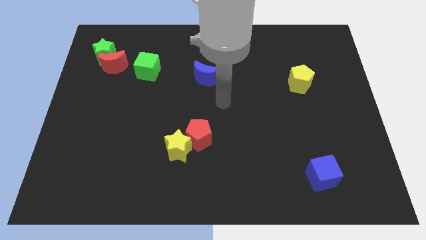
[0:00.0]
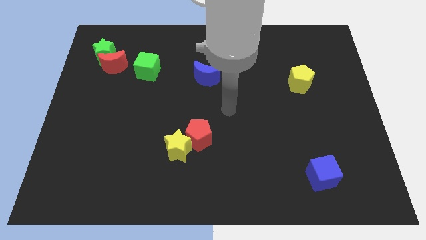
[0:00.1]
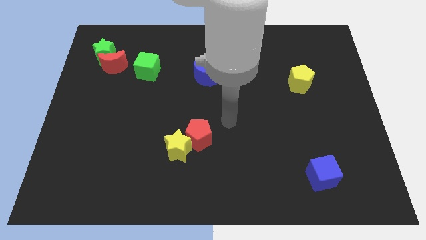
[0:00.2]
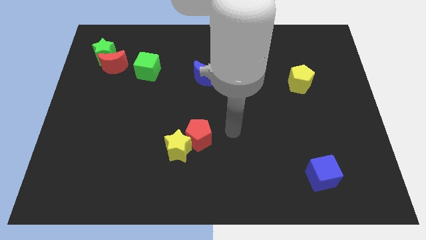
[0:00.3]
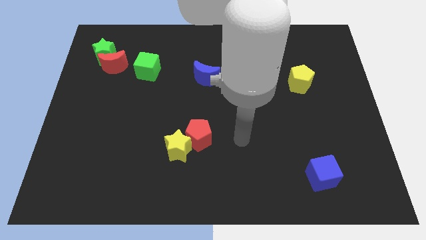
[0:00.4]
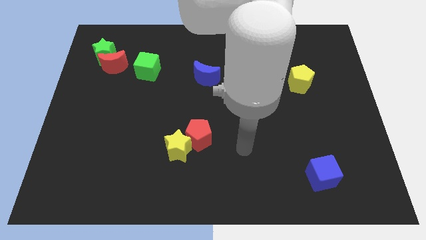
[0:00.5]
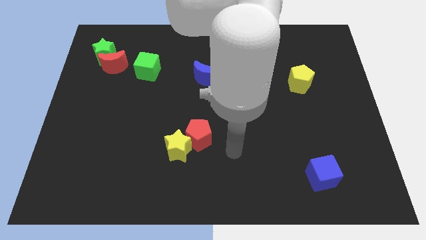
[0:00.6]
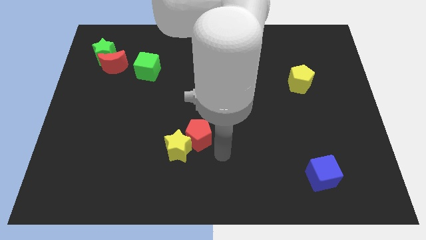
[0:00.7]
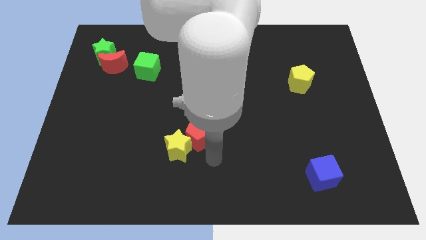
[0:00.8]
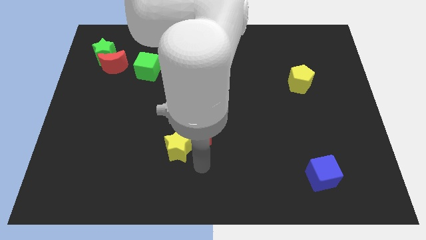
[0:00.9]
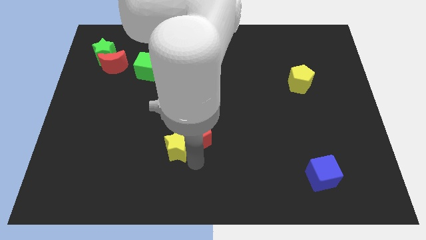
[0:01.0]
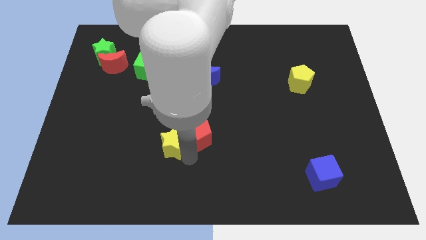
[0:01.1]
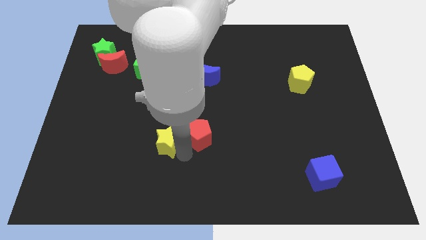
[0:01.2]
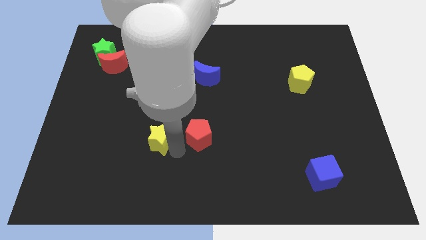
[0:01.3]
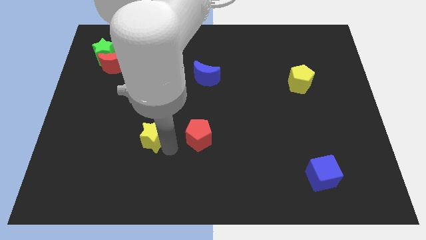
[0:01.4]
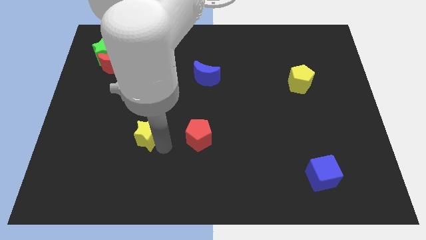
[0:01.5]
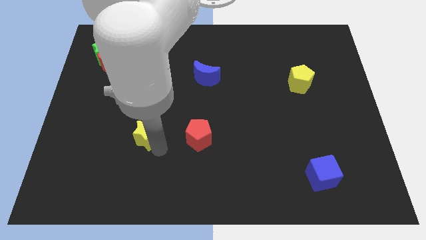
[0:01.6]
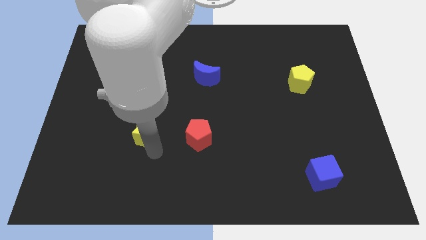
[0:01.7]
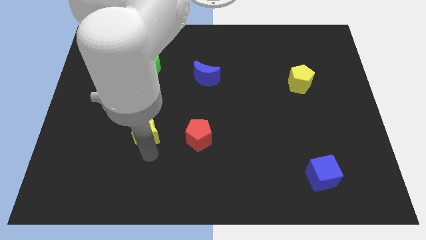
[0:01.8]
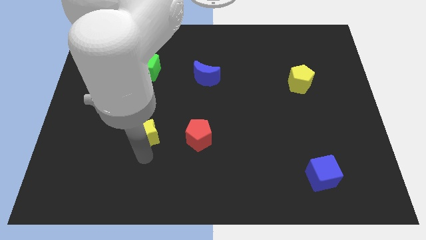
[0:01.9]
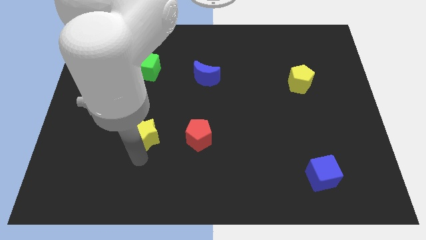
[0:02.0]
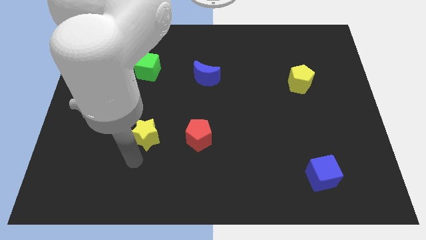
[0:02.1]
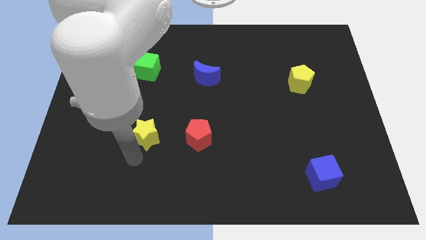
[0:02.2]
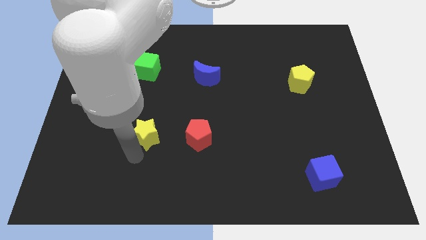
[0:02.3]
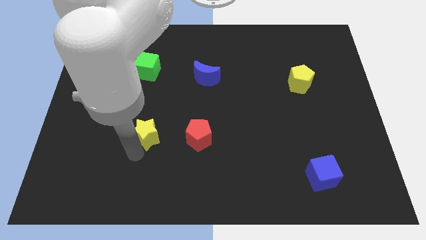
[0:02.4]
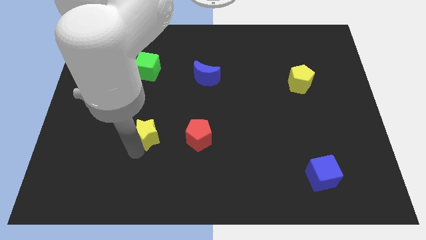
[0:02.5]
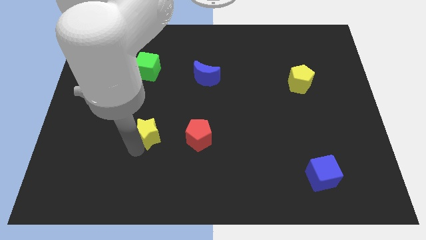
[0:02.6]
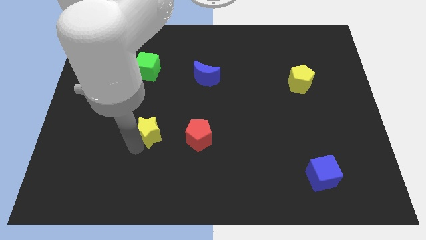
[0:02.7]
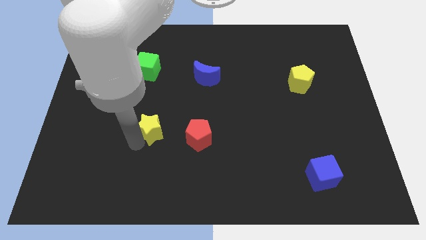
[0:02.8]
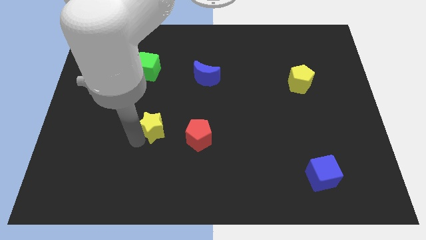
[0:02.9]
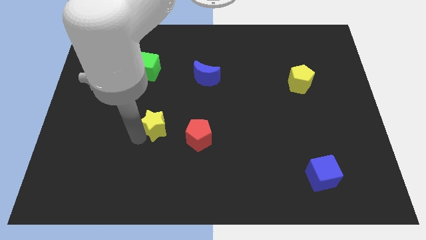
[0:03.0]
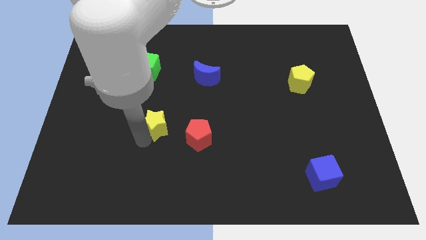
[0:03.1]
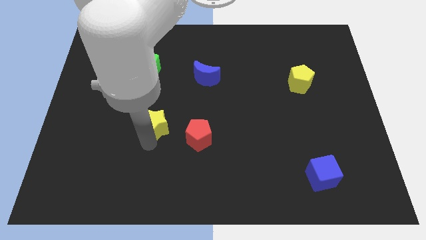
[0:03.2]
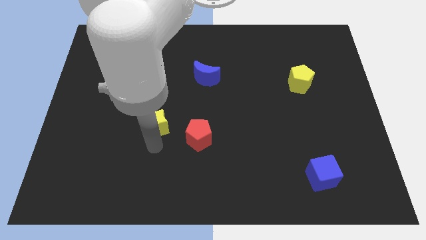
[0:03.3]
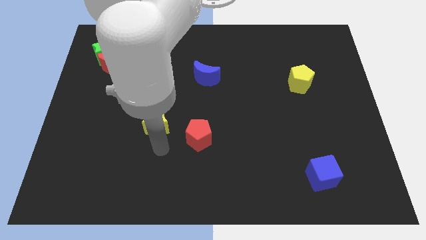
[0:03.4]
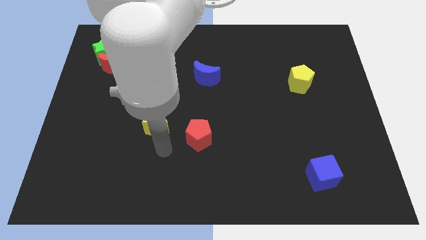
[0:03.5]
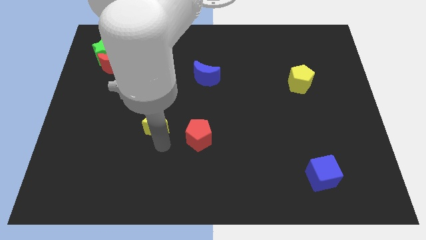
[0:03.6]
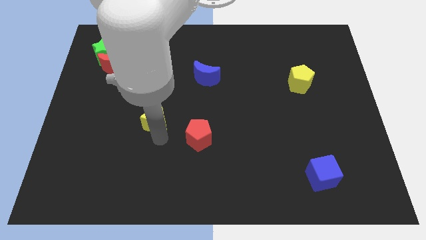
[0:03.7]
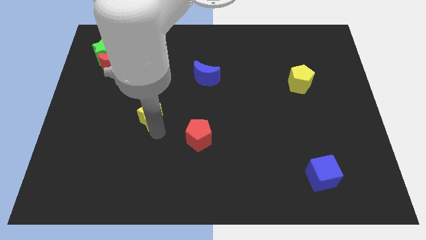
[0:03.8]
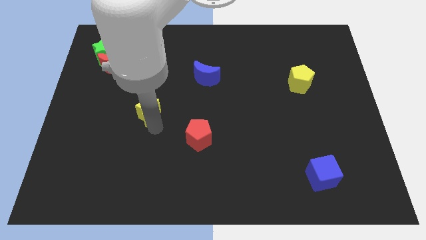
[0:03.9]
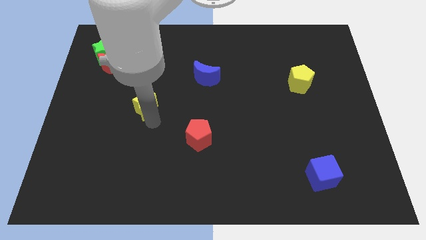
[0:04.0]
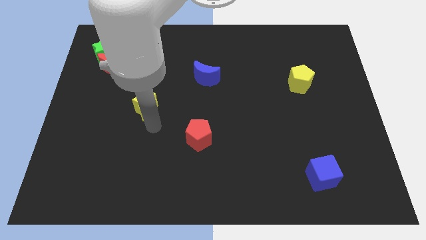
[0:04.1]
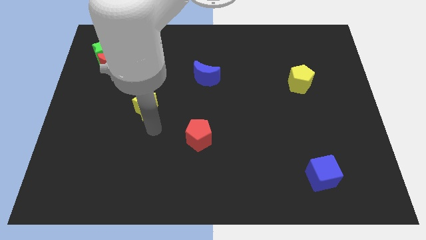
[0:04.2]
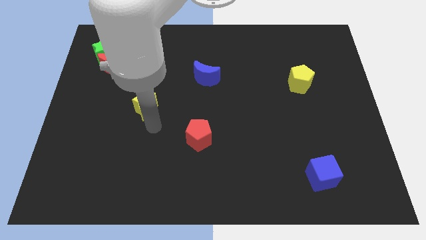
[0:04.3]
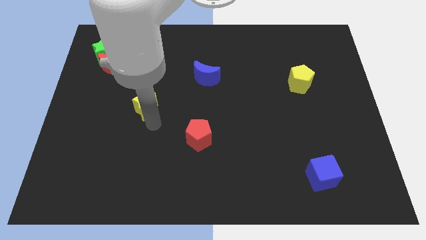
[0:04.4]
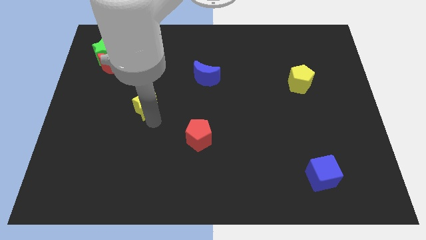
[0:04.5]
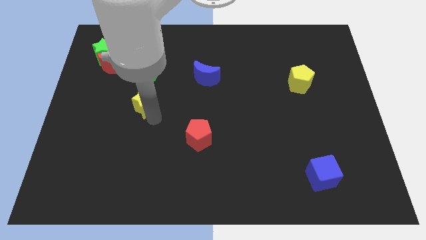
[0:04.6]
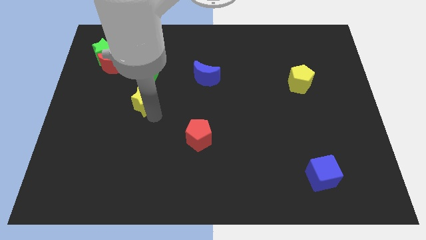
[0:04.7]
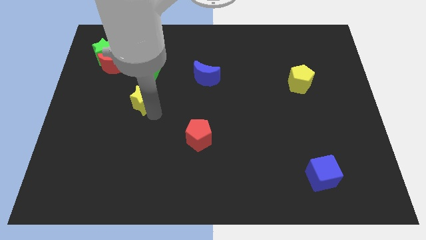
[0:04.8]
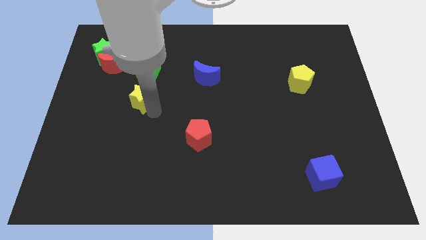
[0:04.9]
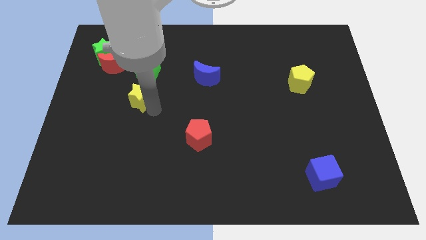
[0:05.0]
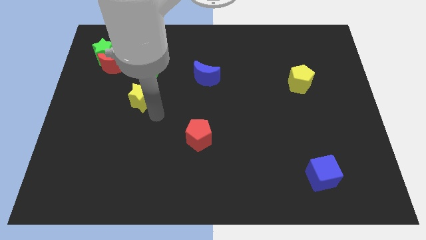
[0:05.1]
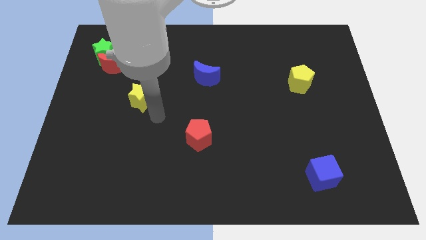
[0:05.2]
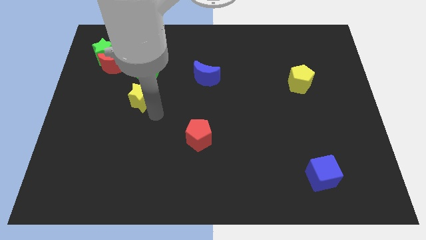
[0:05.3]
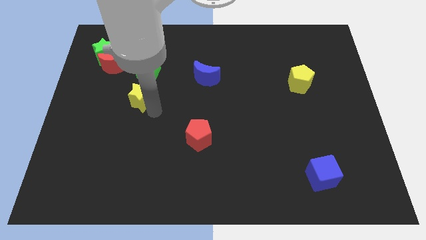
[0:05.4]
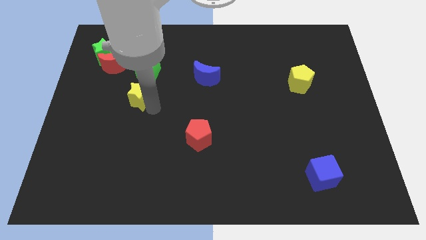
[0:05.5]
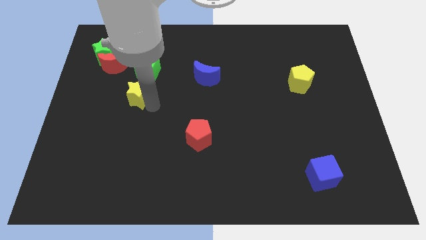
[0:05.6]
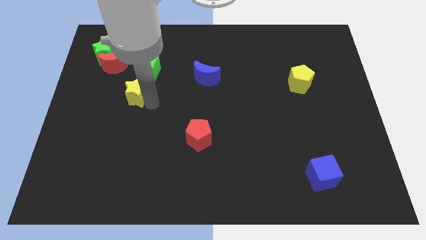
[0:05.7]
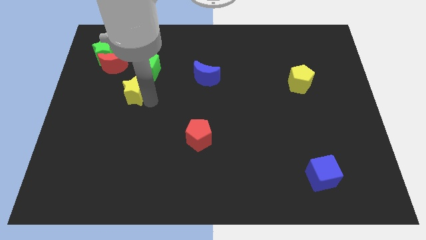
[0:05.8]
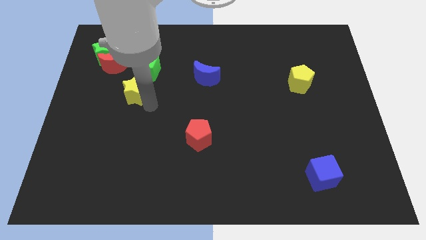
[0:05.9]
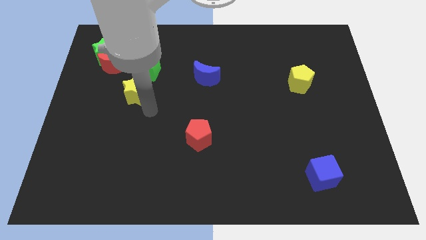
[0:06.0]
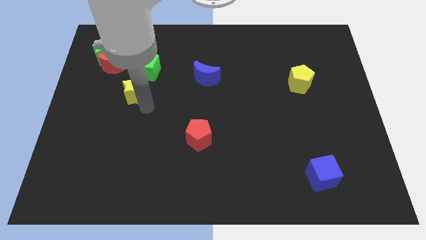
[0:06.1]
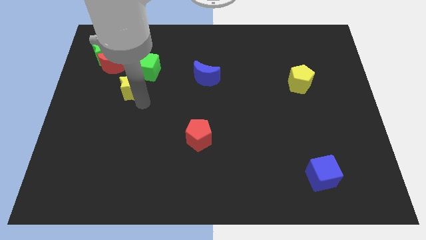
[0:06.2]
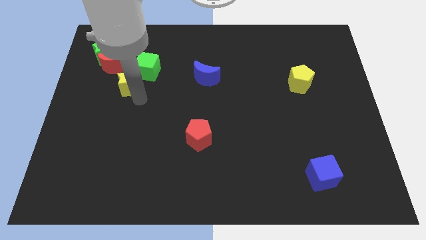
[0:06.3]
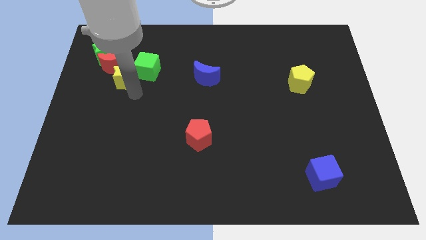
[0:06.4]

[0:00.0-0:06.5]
push the yellow star towards the red moon

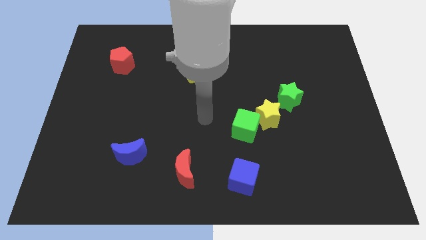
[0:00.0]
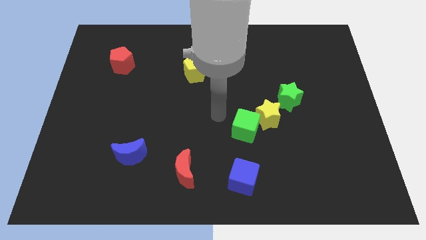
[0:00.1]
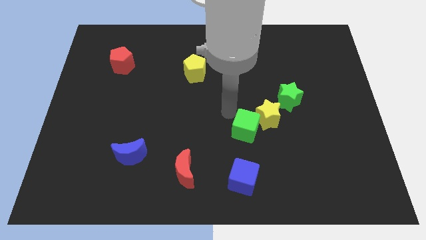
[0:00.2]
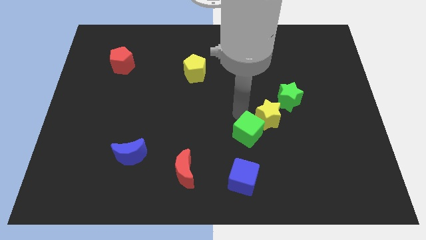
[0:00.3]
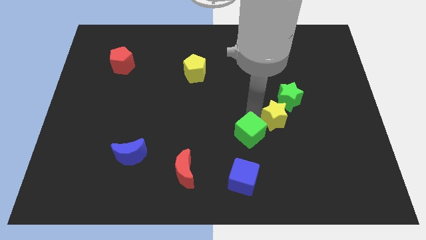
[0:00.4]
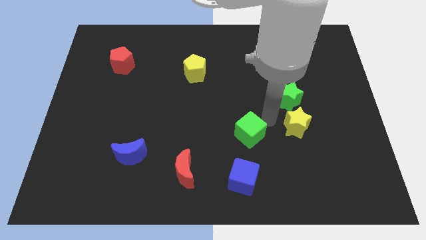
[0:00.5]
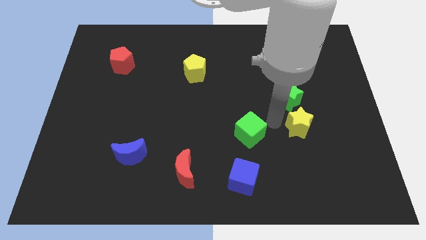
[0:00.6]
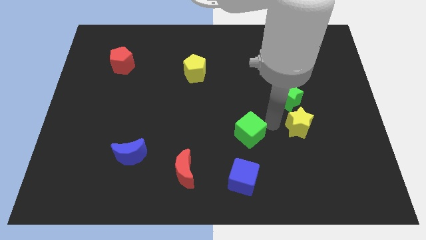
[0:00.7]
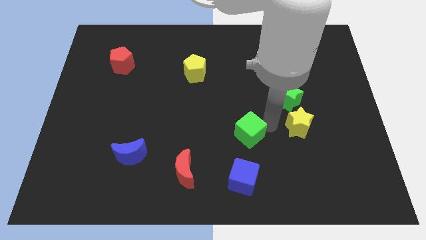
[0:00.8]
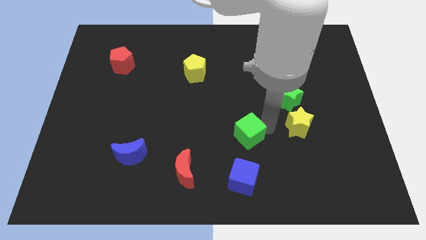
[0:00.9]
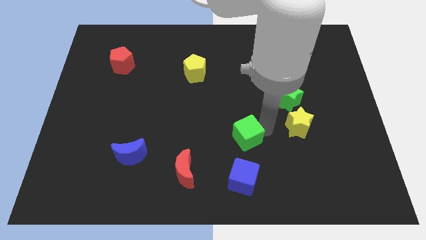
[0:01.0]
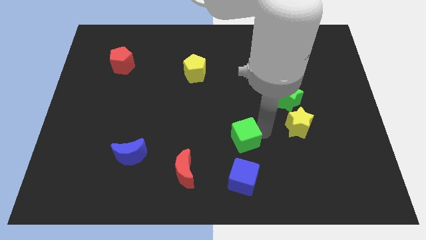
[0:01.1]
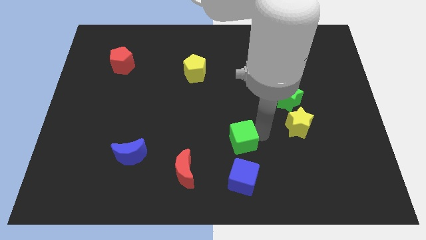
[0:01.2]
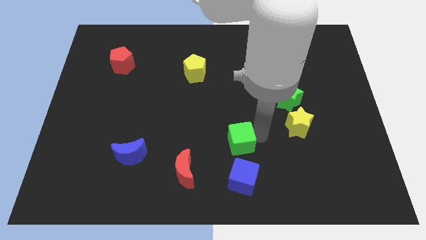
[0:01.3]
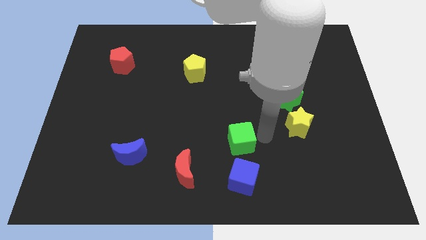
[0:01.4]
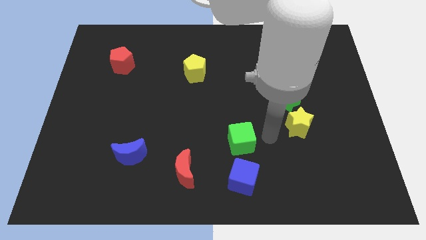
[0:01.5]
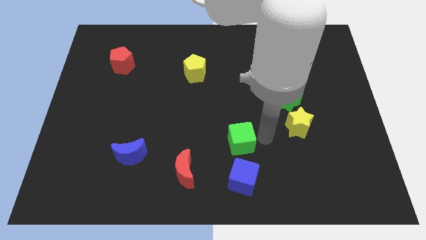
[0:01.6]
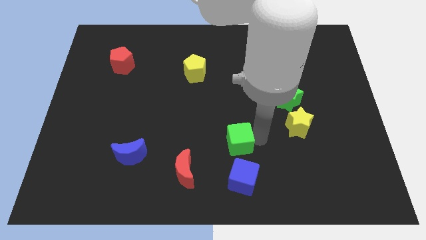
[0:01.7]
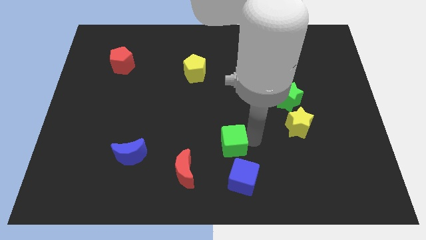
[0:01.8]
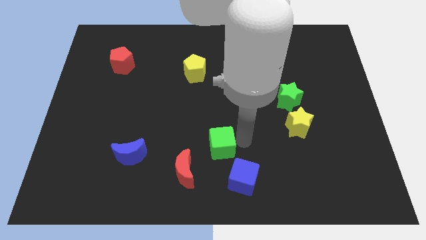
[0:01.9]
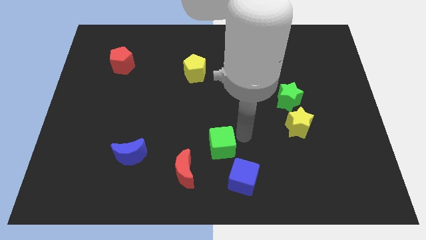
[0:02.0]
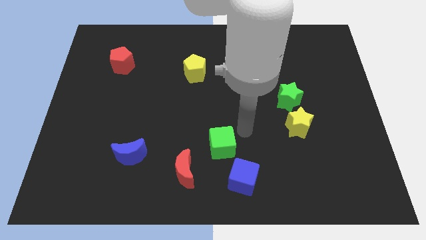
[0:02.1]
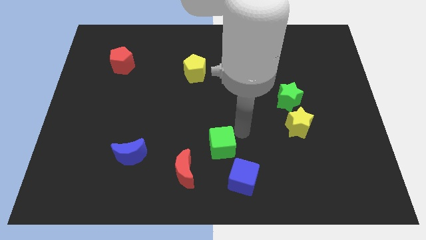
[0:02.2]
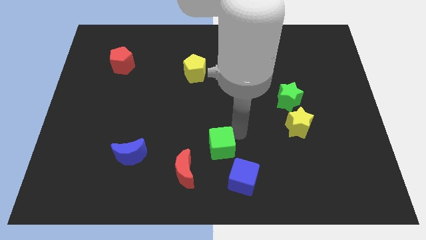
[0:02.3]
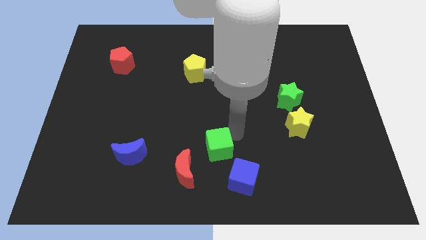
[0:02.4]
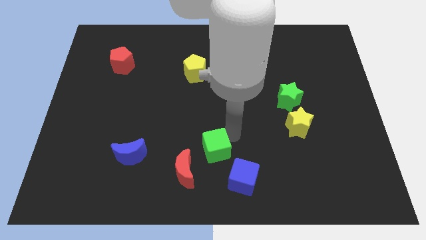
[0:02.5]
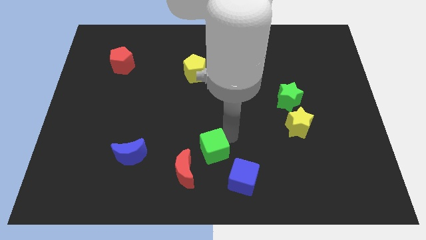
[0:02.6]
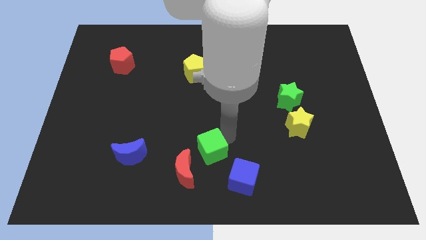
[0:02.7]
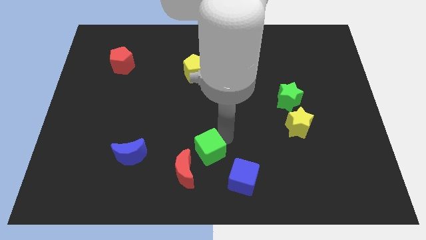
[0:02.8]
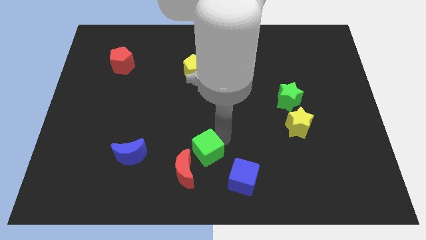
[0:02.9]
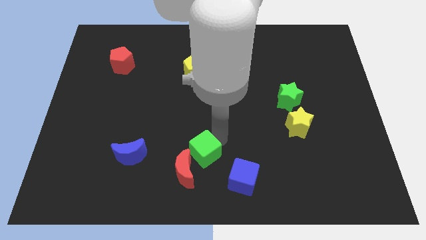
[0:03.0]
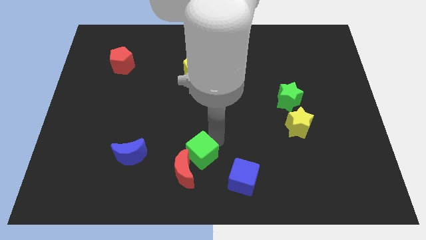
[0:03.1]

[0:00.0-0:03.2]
push the green cube to the red moon
